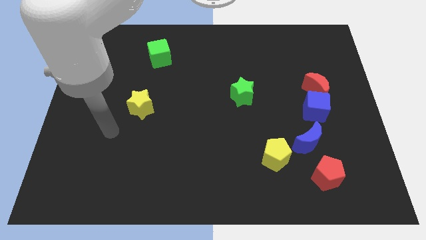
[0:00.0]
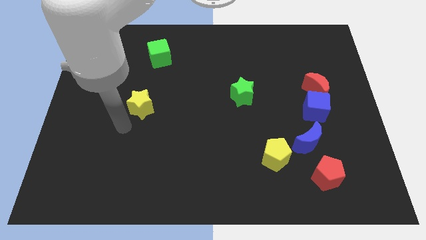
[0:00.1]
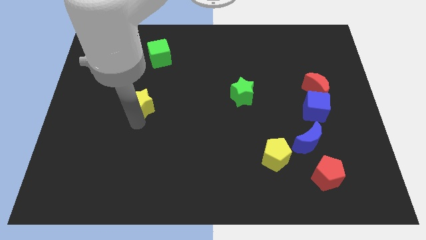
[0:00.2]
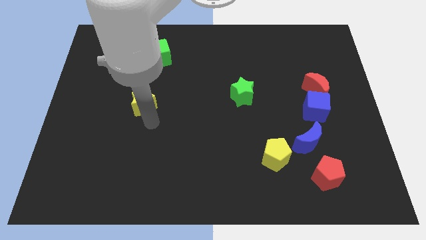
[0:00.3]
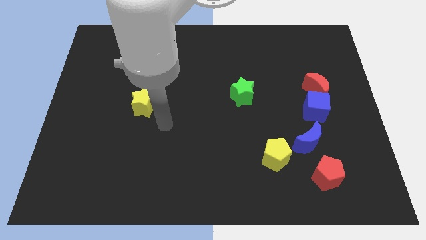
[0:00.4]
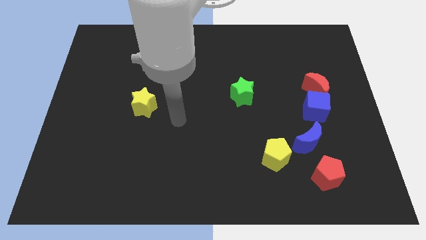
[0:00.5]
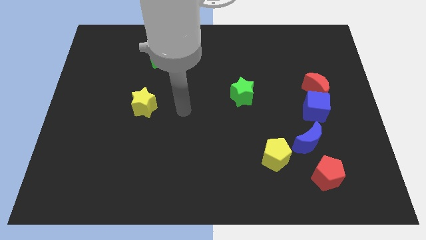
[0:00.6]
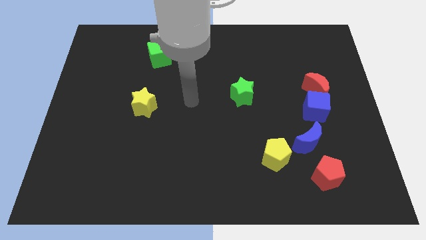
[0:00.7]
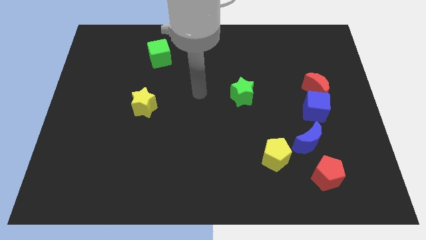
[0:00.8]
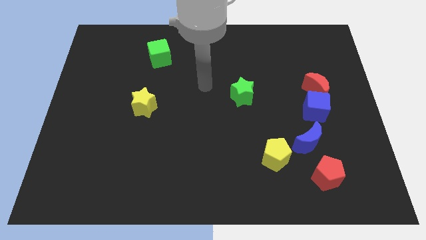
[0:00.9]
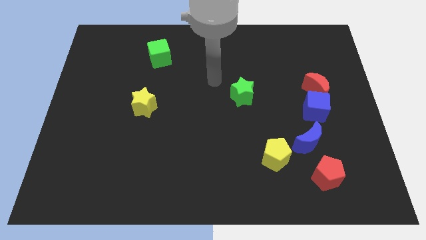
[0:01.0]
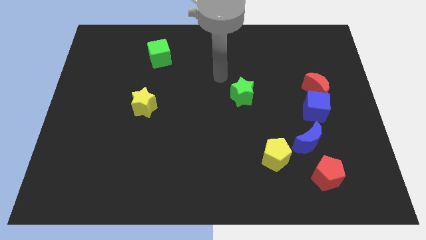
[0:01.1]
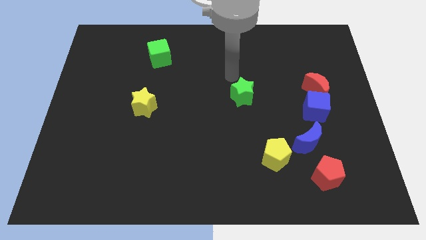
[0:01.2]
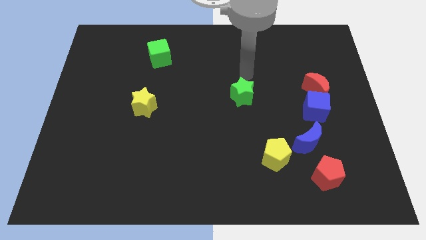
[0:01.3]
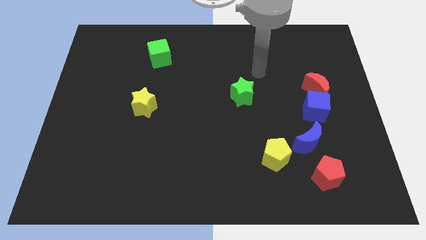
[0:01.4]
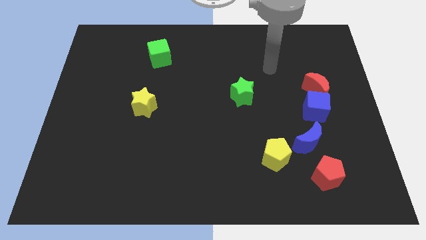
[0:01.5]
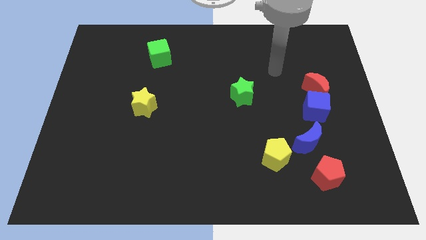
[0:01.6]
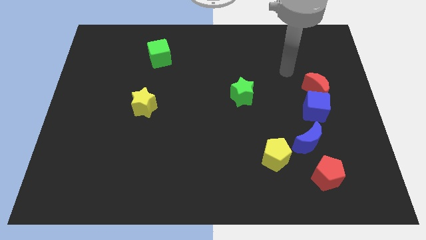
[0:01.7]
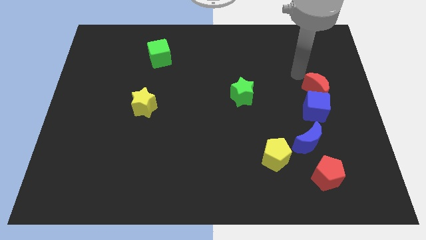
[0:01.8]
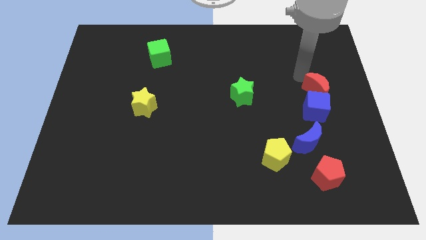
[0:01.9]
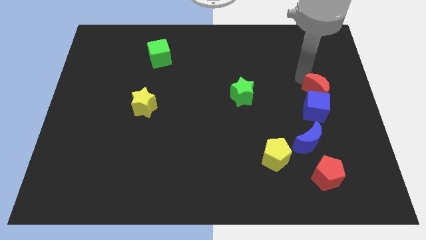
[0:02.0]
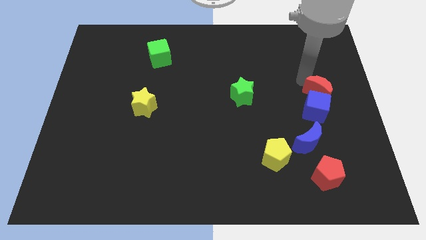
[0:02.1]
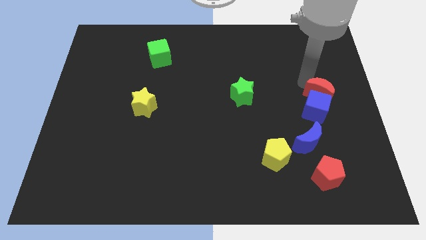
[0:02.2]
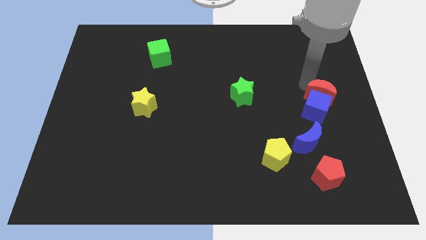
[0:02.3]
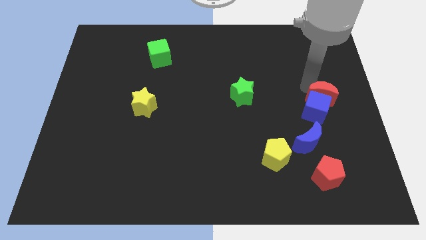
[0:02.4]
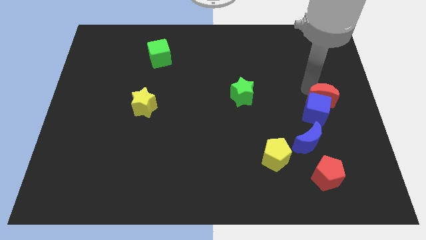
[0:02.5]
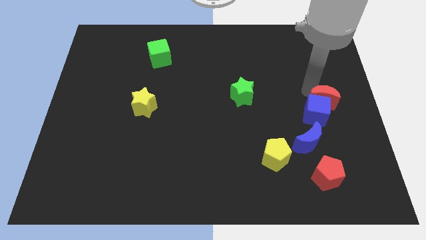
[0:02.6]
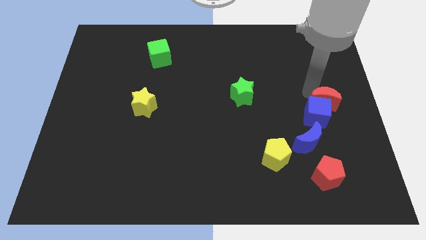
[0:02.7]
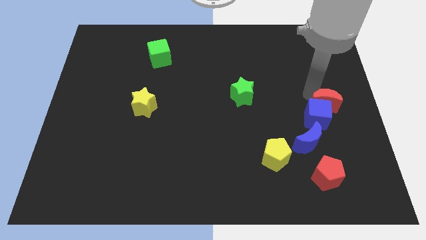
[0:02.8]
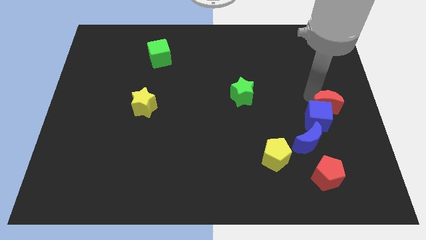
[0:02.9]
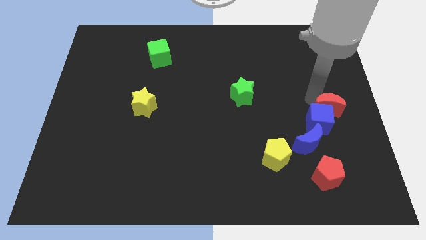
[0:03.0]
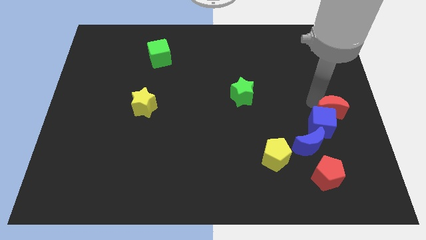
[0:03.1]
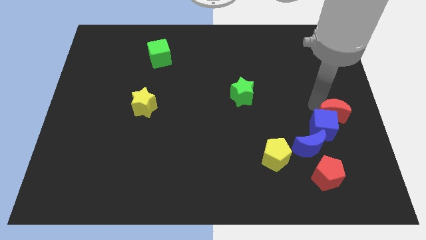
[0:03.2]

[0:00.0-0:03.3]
push the red moon slightly downwards

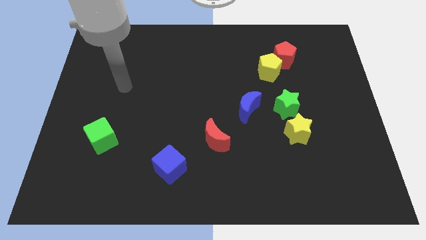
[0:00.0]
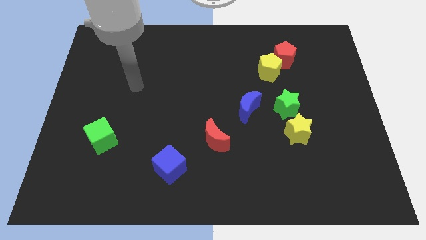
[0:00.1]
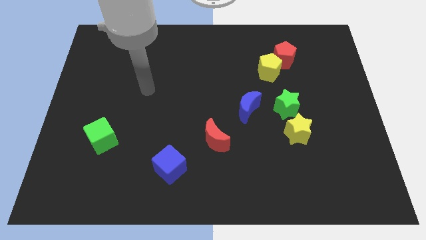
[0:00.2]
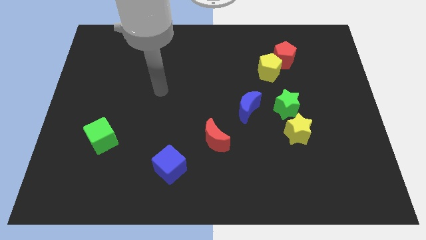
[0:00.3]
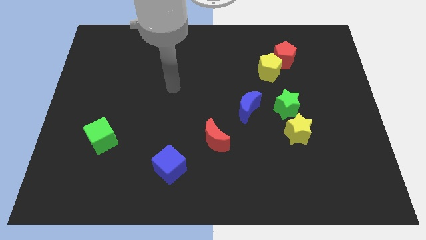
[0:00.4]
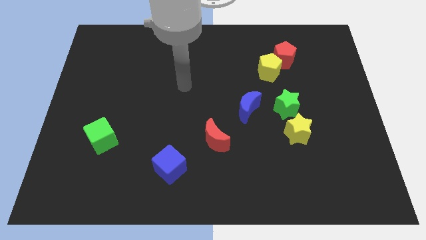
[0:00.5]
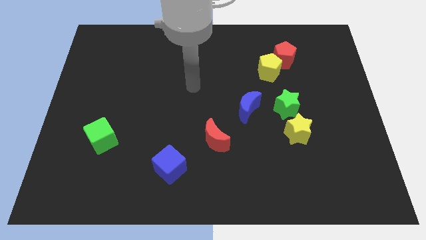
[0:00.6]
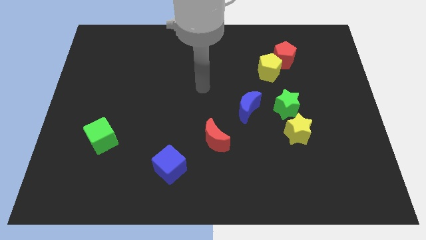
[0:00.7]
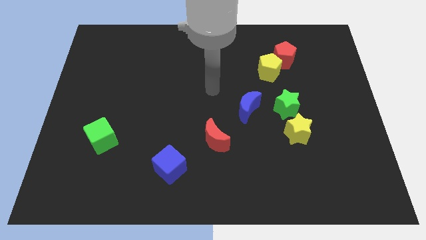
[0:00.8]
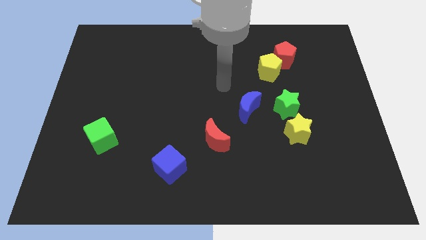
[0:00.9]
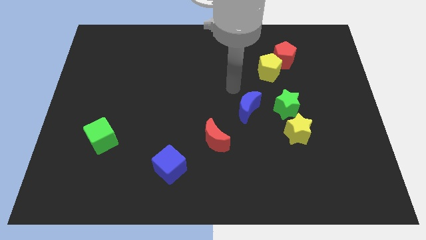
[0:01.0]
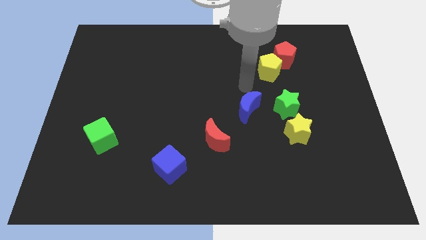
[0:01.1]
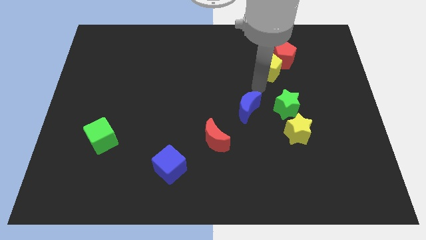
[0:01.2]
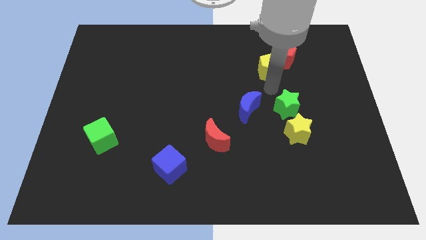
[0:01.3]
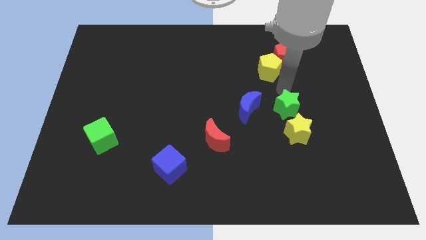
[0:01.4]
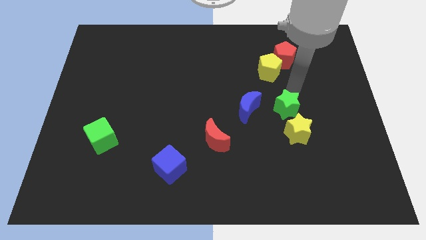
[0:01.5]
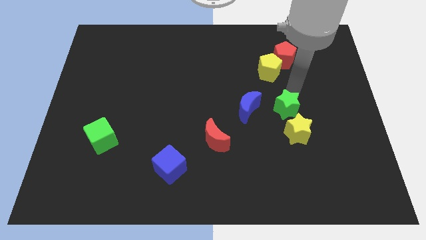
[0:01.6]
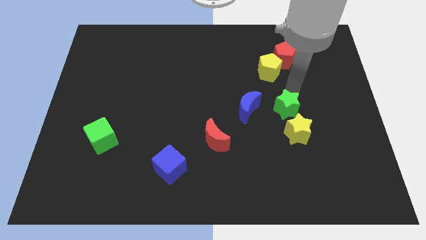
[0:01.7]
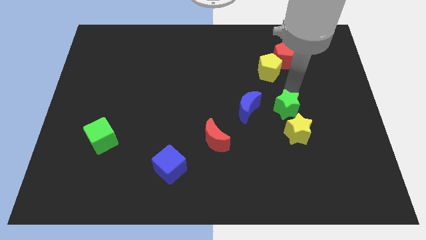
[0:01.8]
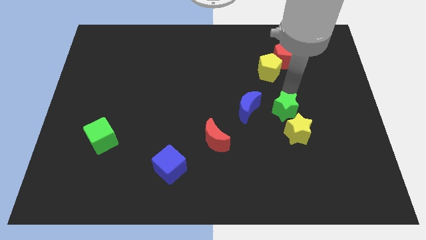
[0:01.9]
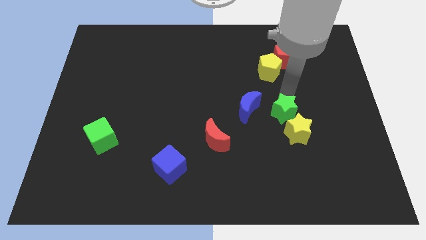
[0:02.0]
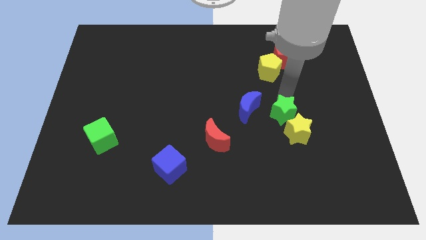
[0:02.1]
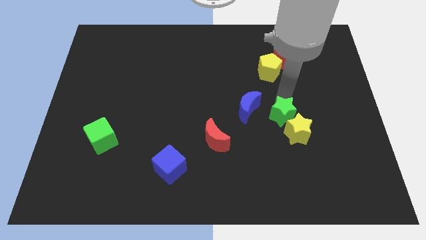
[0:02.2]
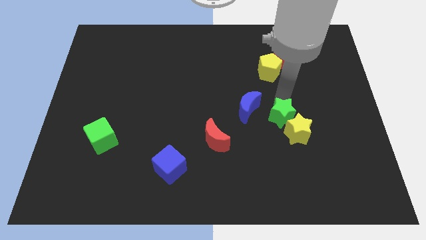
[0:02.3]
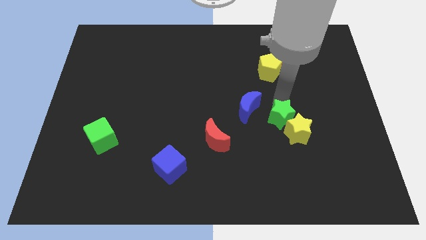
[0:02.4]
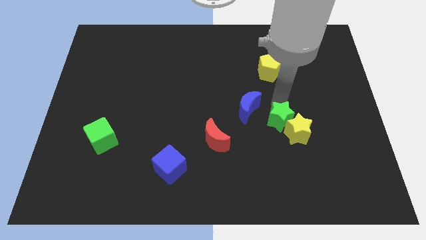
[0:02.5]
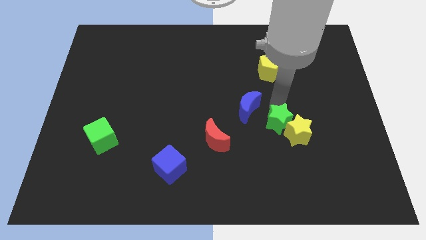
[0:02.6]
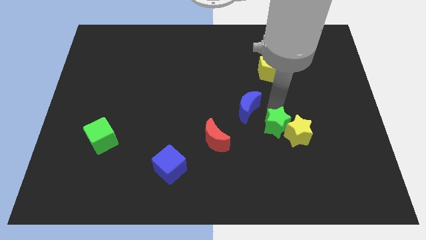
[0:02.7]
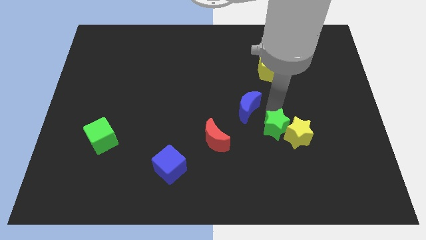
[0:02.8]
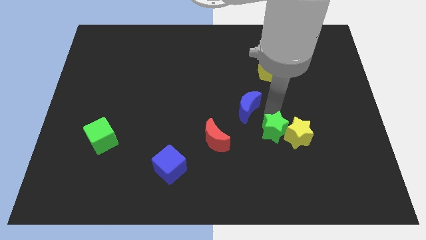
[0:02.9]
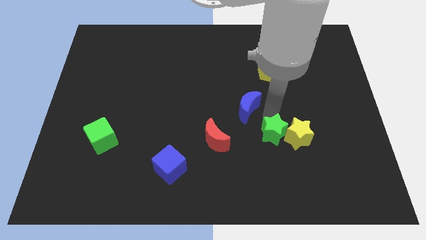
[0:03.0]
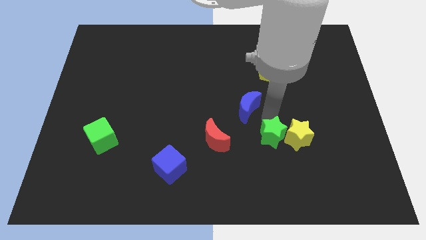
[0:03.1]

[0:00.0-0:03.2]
slide the green star a little bit down

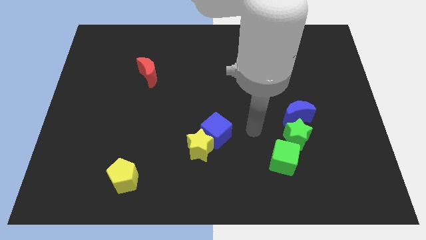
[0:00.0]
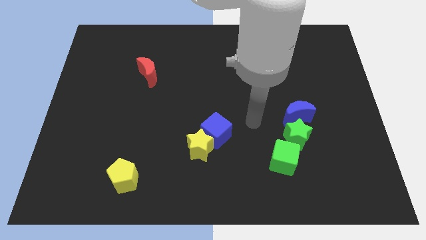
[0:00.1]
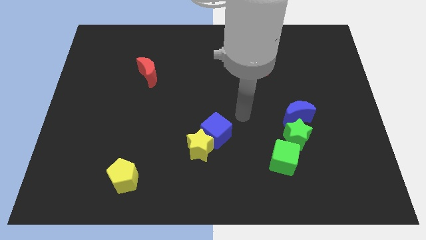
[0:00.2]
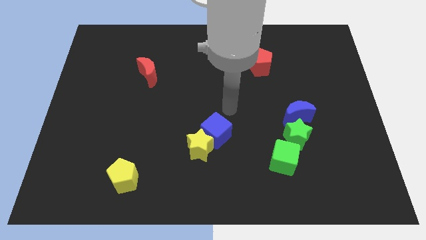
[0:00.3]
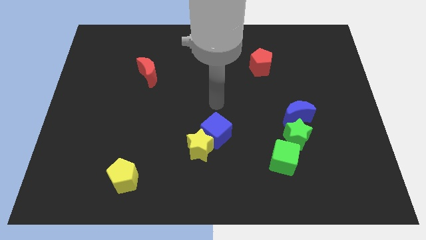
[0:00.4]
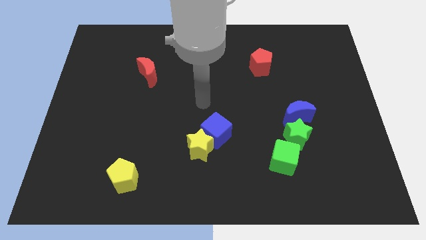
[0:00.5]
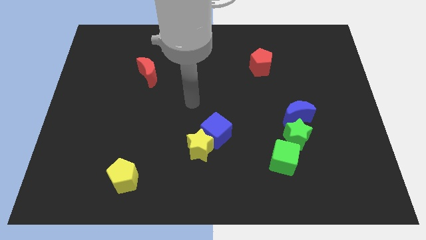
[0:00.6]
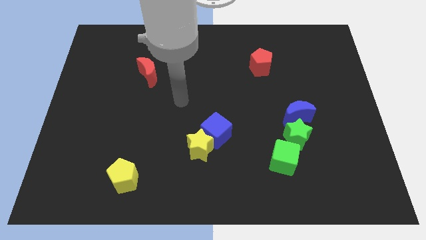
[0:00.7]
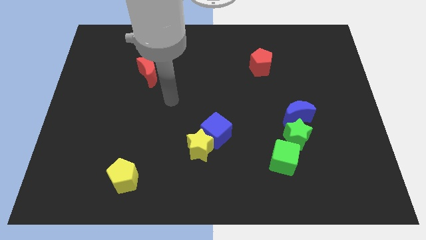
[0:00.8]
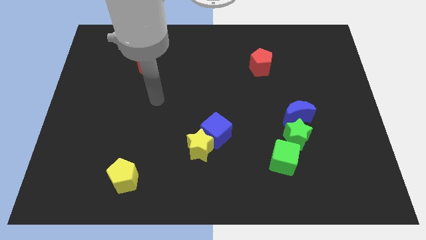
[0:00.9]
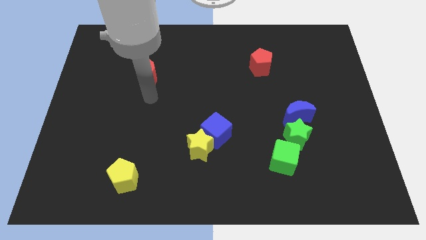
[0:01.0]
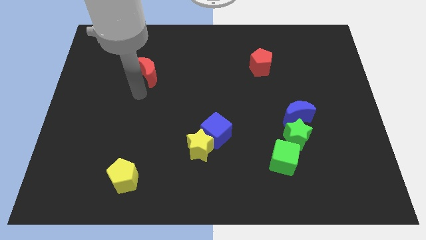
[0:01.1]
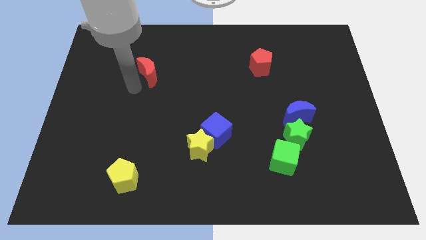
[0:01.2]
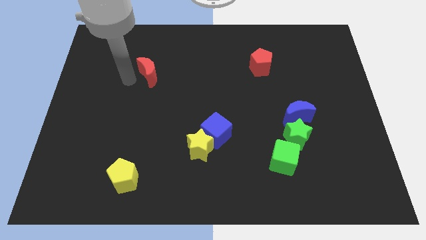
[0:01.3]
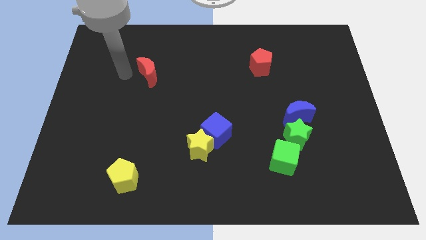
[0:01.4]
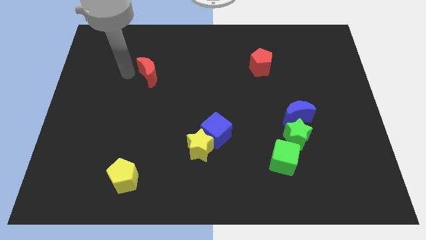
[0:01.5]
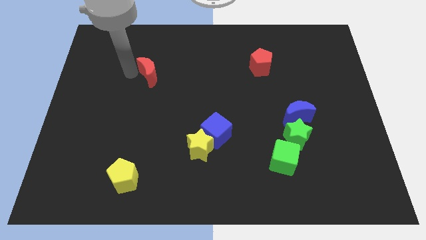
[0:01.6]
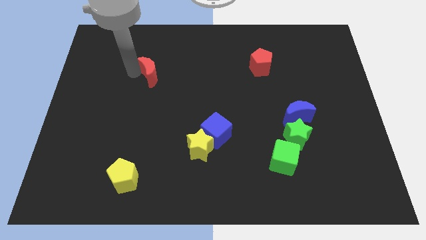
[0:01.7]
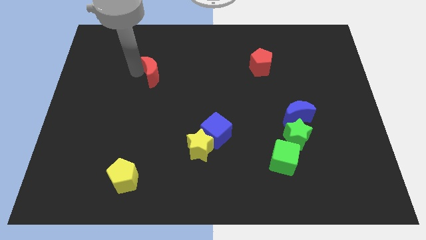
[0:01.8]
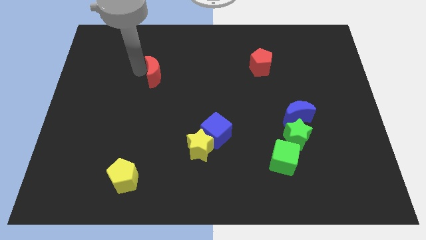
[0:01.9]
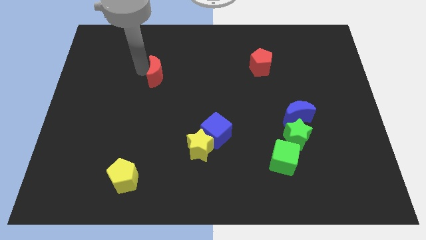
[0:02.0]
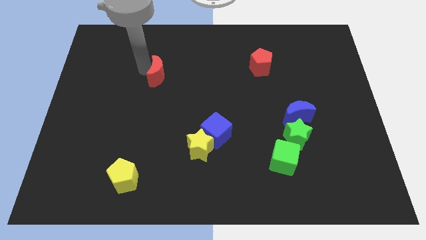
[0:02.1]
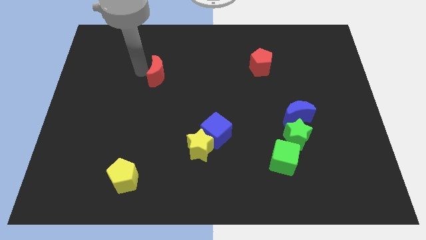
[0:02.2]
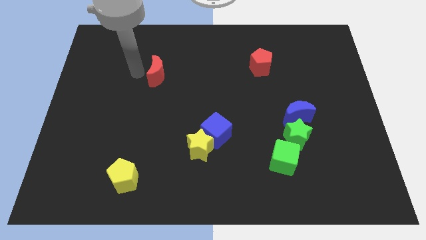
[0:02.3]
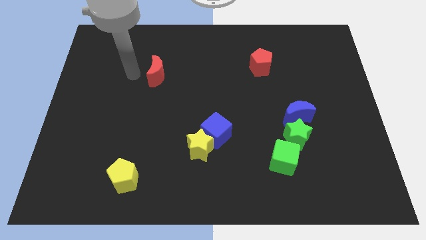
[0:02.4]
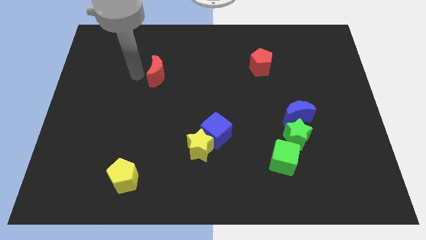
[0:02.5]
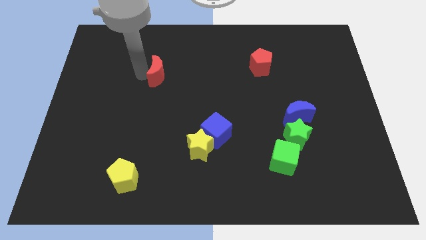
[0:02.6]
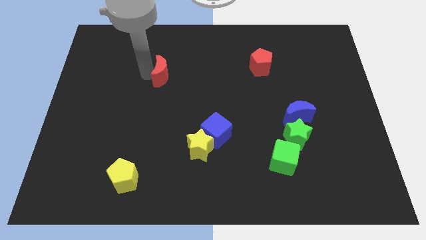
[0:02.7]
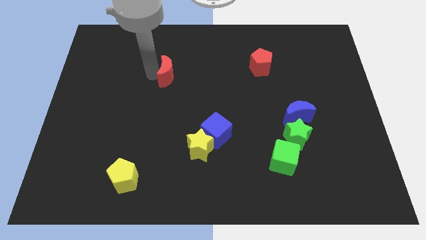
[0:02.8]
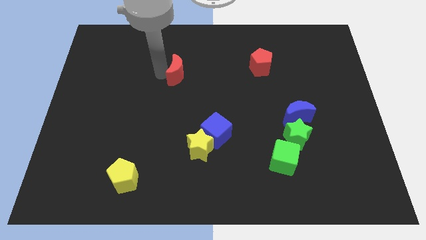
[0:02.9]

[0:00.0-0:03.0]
move the red moon a little bit right
